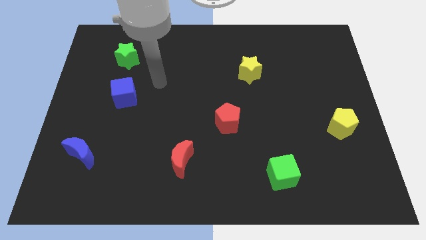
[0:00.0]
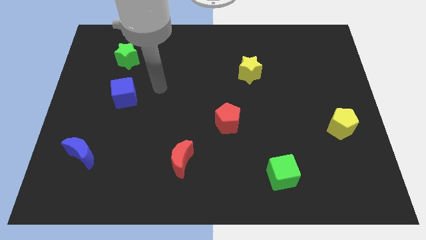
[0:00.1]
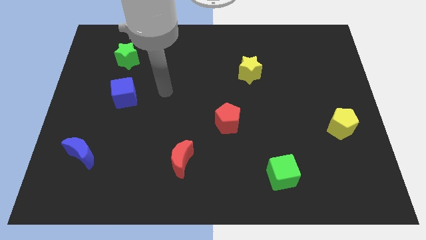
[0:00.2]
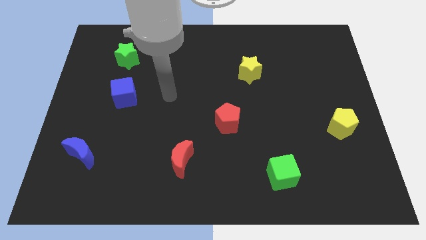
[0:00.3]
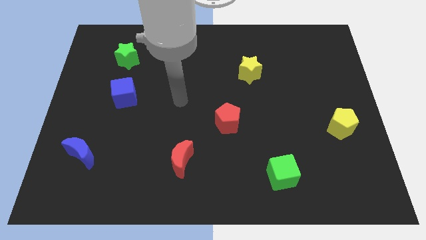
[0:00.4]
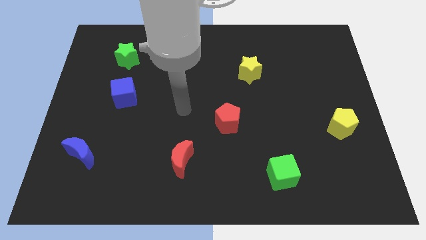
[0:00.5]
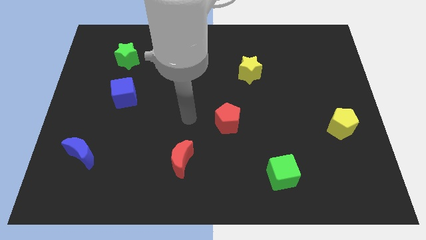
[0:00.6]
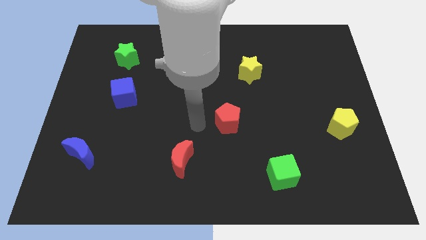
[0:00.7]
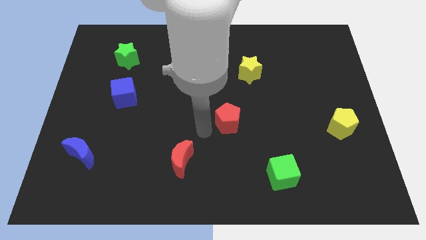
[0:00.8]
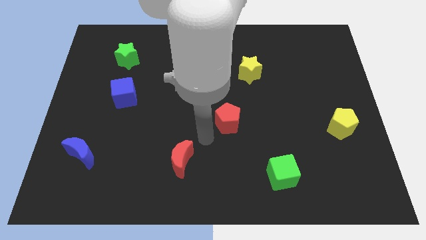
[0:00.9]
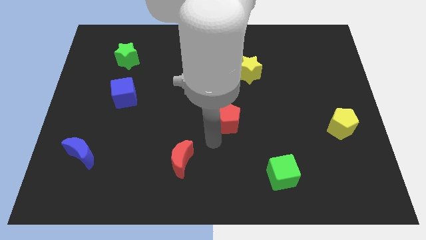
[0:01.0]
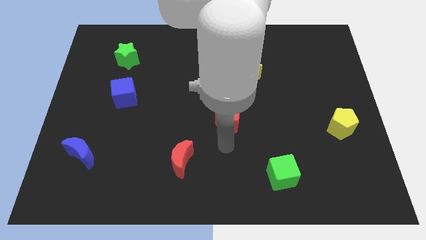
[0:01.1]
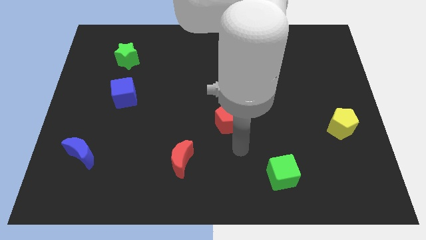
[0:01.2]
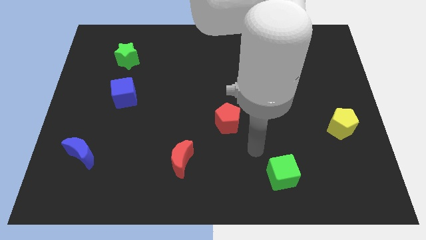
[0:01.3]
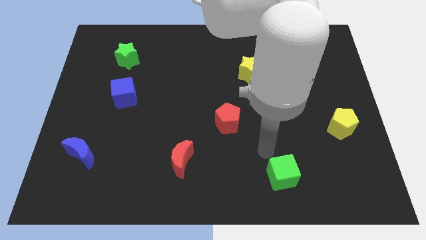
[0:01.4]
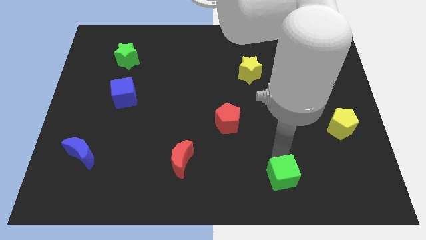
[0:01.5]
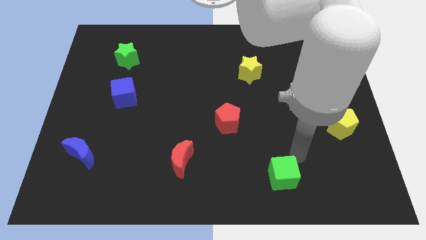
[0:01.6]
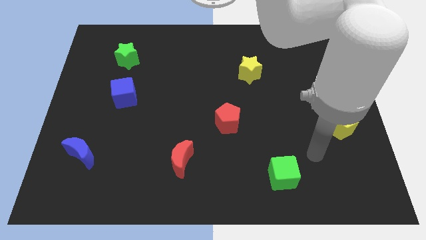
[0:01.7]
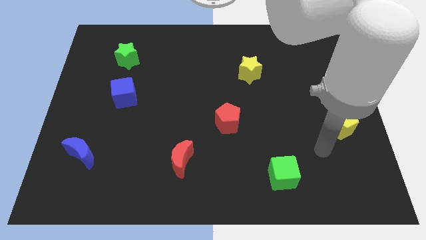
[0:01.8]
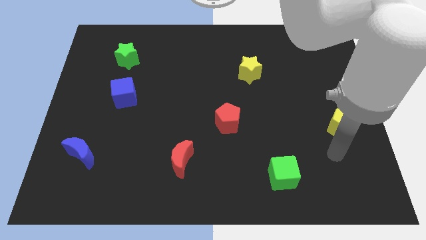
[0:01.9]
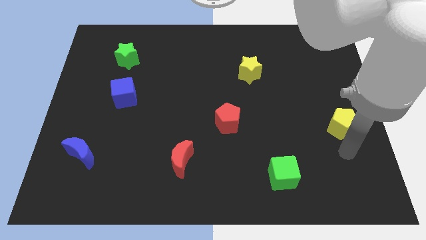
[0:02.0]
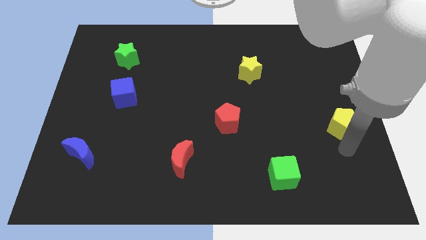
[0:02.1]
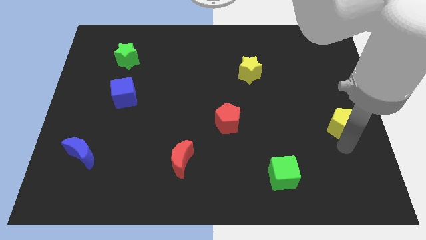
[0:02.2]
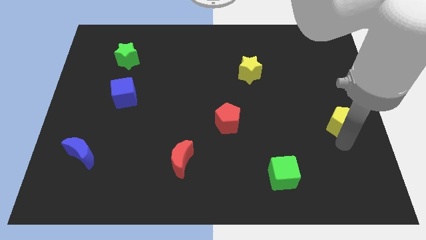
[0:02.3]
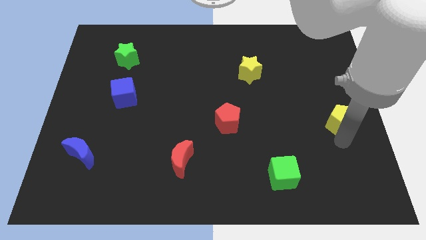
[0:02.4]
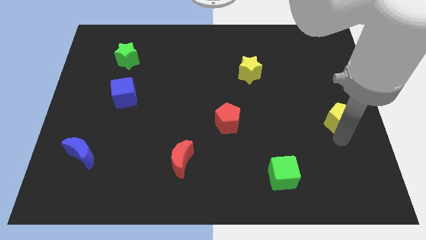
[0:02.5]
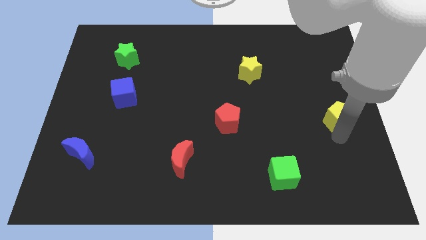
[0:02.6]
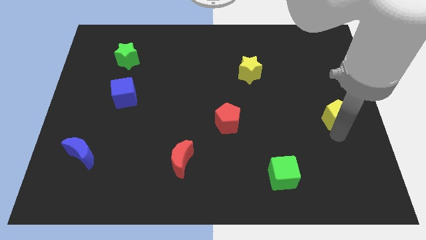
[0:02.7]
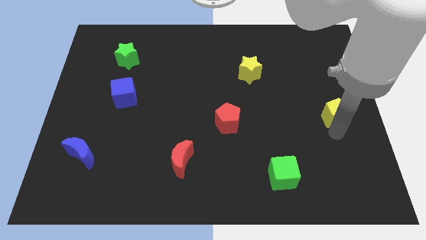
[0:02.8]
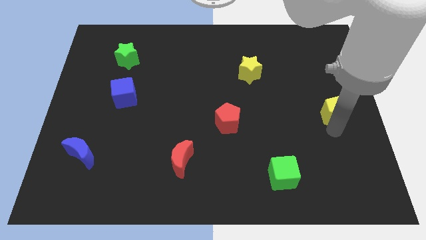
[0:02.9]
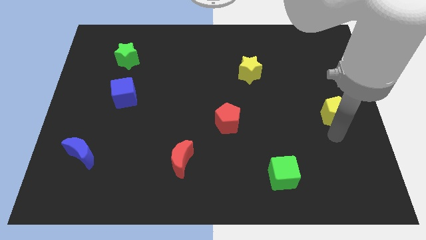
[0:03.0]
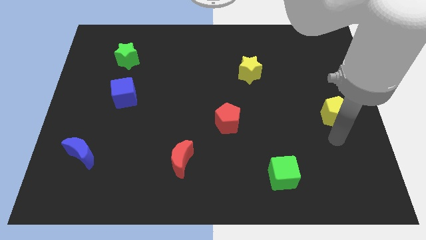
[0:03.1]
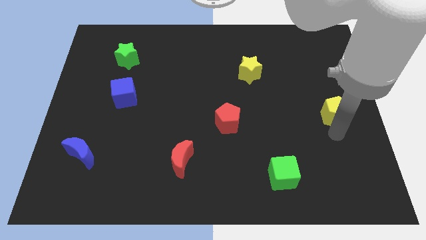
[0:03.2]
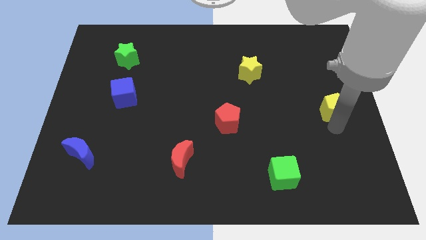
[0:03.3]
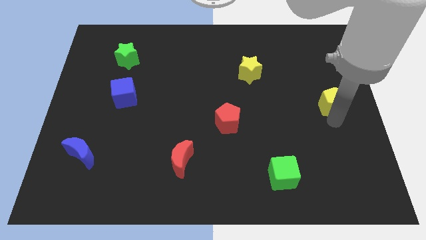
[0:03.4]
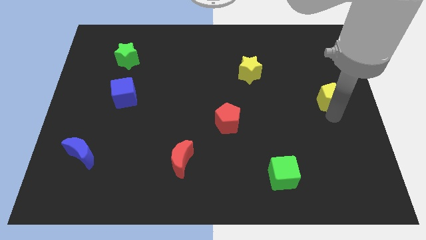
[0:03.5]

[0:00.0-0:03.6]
push the yellow pentagon a little upwards

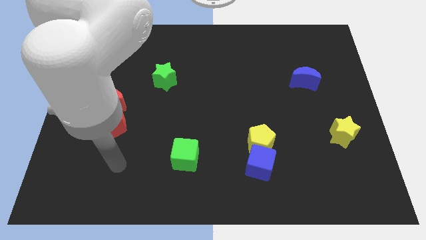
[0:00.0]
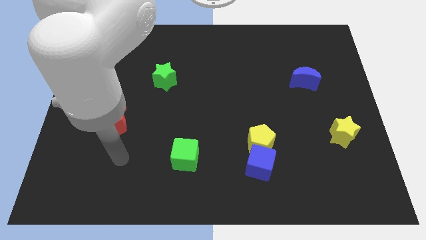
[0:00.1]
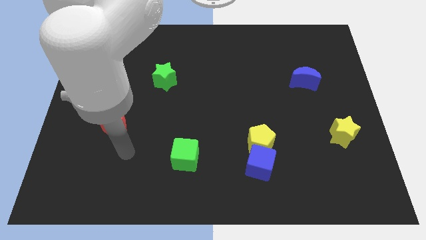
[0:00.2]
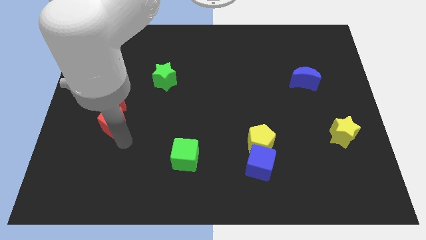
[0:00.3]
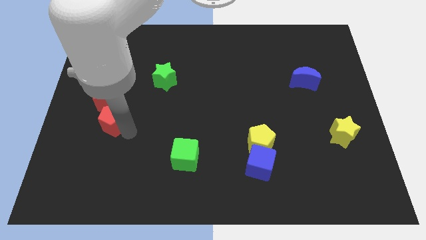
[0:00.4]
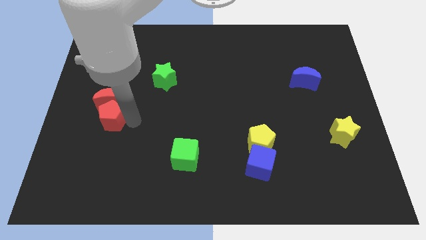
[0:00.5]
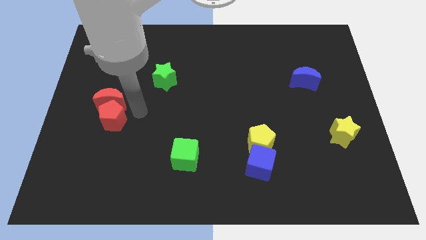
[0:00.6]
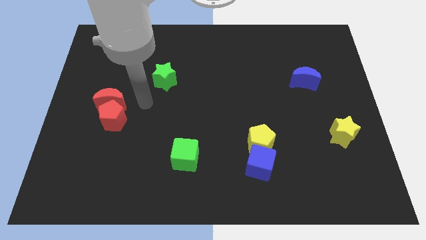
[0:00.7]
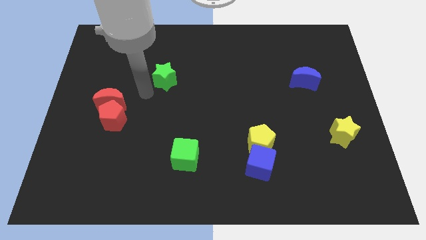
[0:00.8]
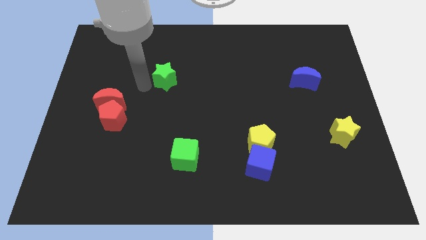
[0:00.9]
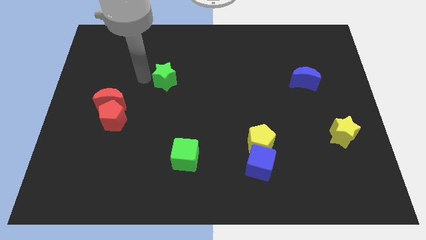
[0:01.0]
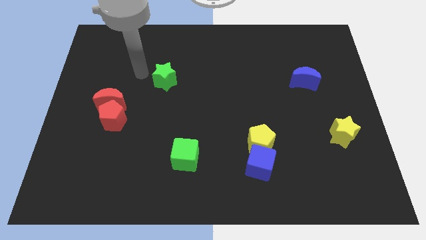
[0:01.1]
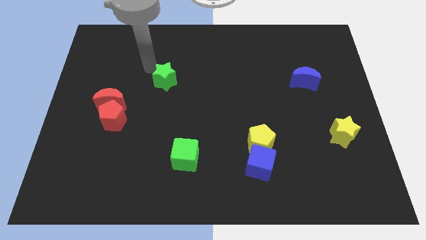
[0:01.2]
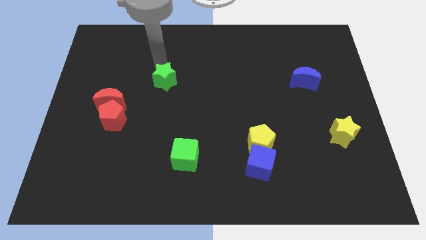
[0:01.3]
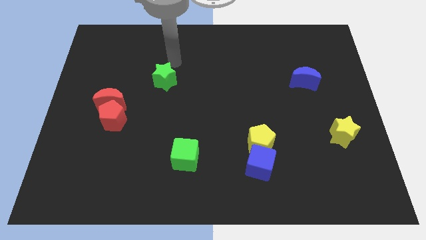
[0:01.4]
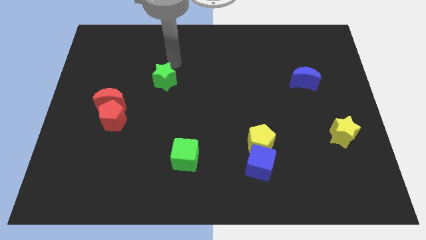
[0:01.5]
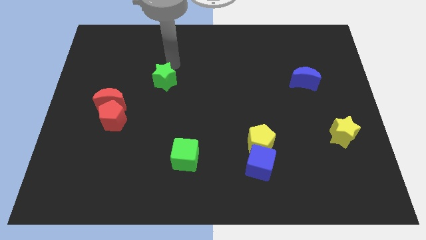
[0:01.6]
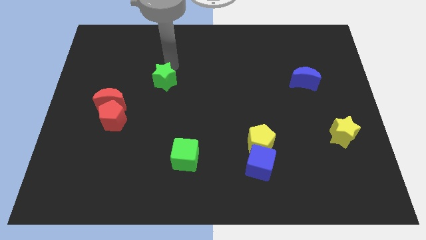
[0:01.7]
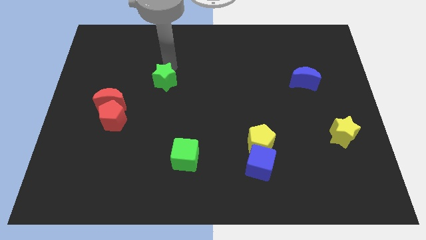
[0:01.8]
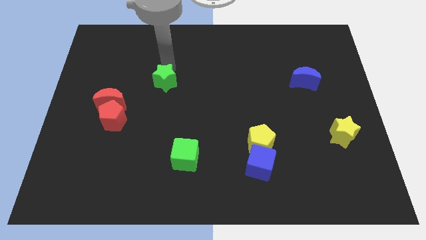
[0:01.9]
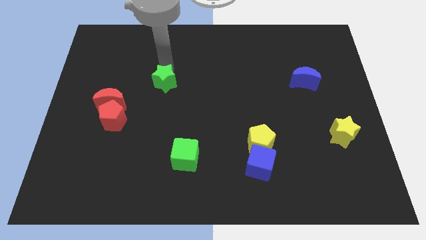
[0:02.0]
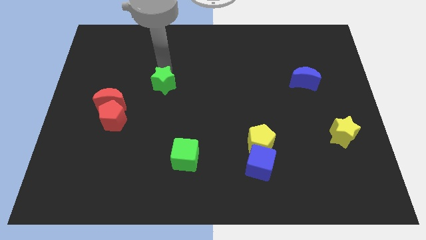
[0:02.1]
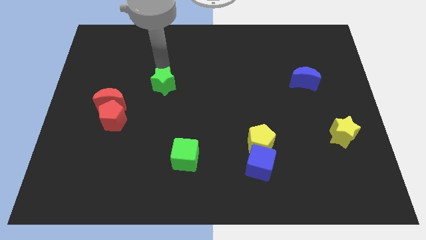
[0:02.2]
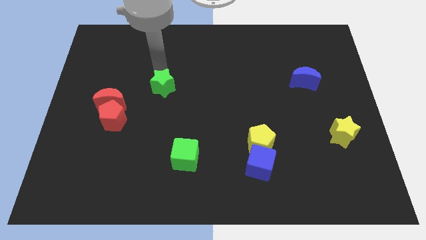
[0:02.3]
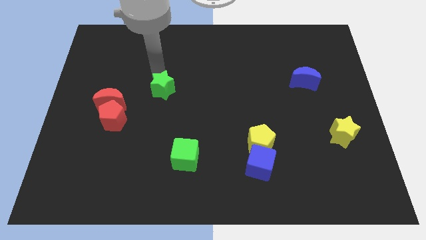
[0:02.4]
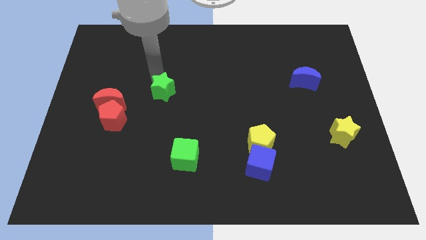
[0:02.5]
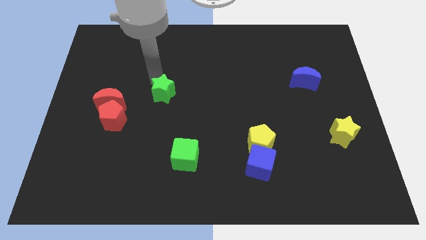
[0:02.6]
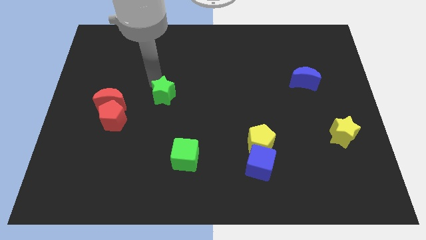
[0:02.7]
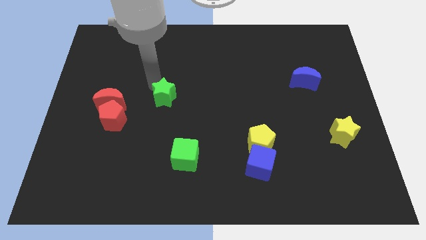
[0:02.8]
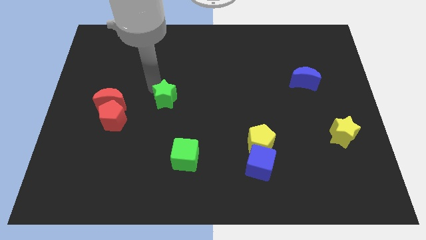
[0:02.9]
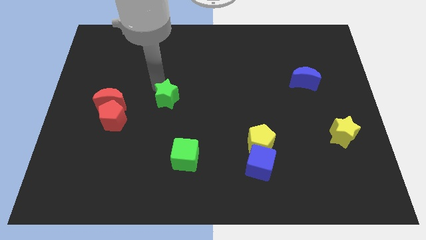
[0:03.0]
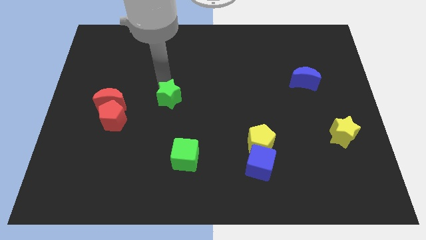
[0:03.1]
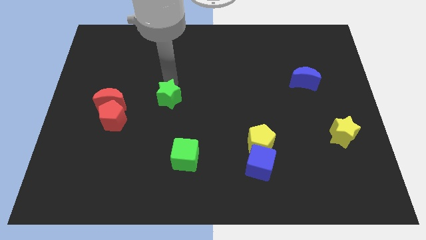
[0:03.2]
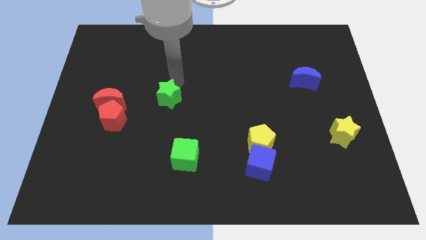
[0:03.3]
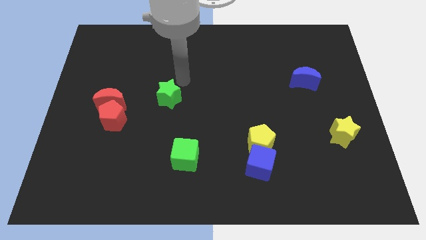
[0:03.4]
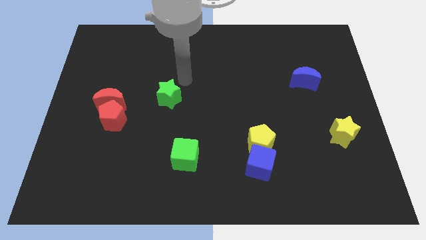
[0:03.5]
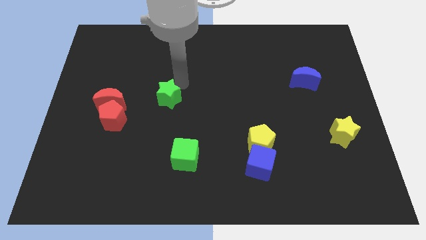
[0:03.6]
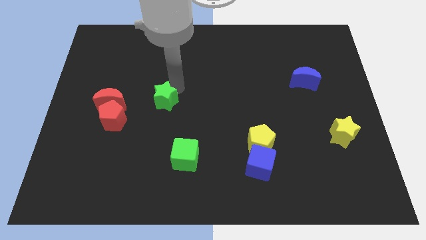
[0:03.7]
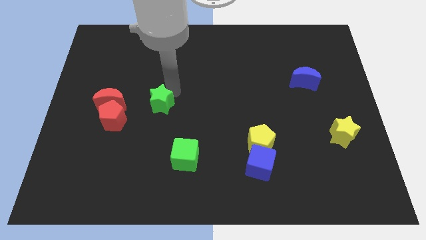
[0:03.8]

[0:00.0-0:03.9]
slightly slide the green star downwards

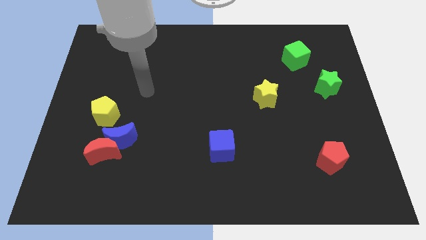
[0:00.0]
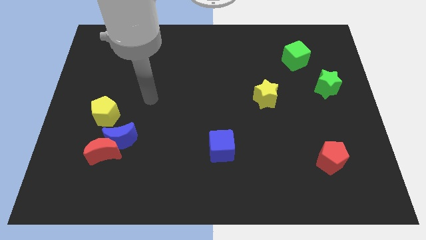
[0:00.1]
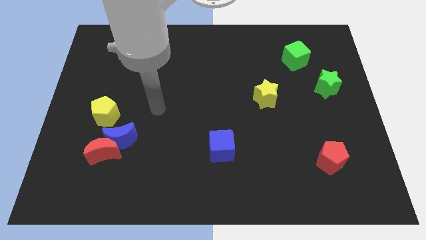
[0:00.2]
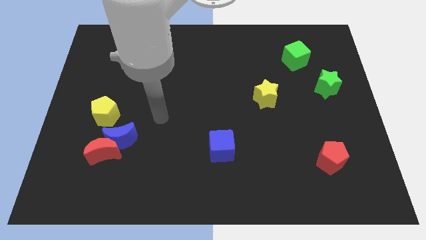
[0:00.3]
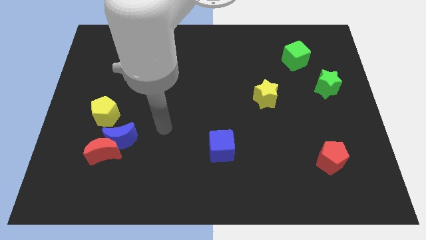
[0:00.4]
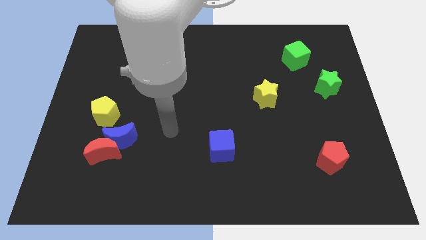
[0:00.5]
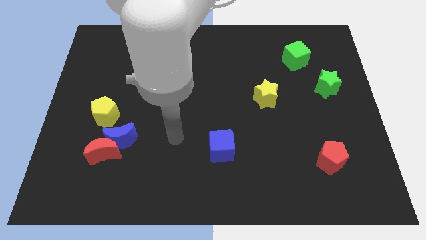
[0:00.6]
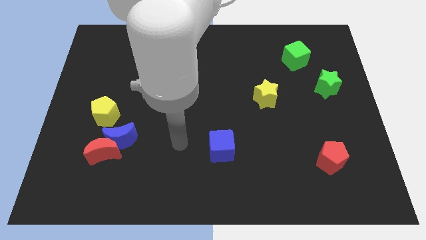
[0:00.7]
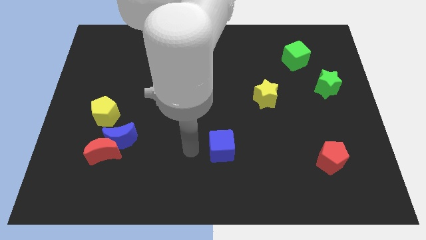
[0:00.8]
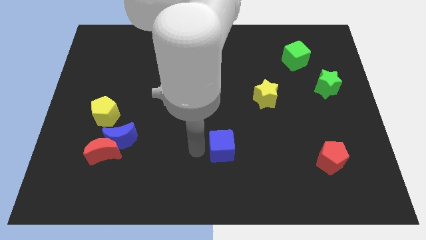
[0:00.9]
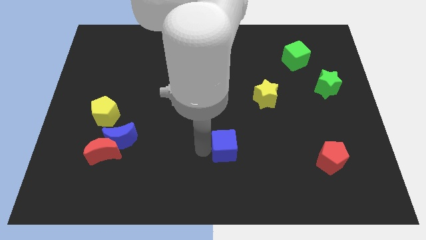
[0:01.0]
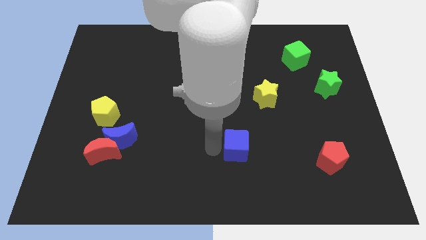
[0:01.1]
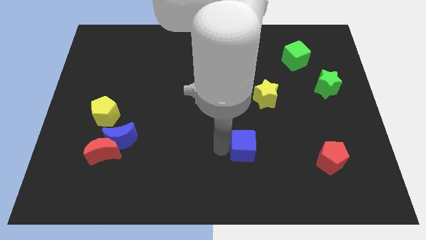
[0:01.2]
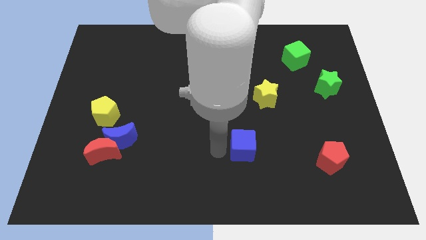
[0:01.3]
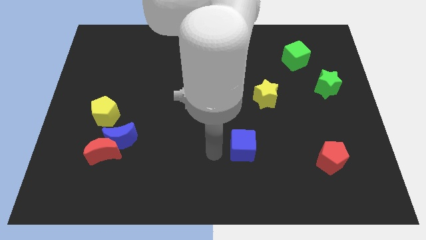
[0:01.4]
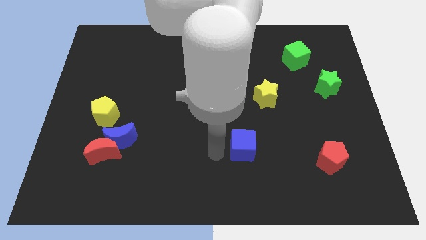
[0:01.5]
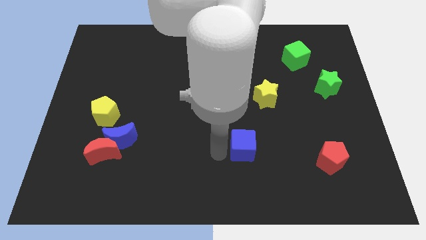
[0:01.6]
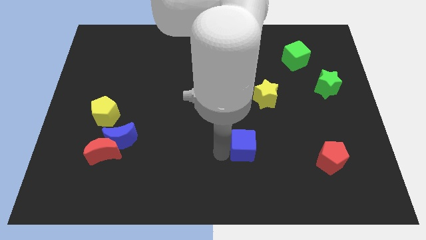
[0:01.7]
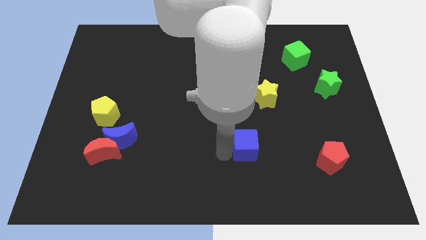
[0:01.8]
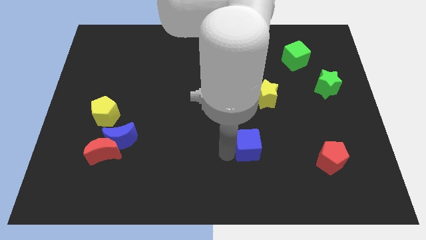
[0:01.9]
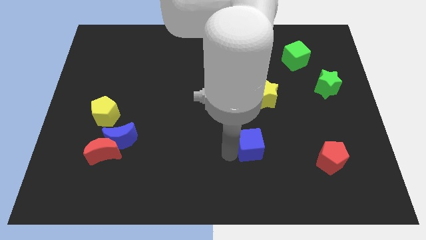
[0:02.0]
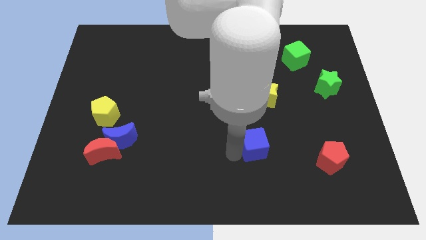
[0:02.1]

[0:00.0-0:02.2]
slightly slide the blue cube right
